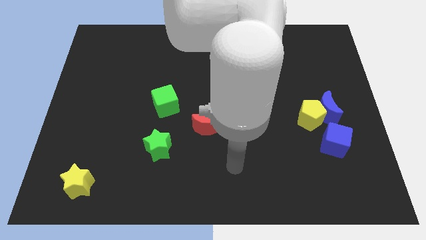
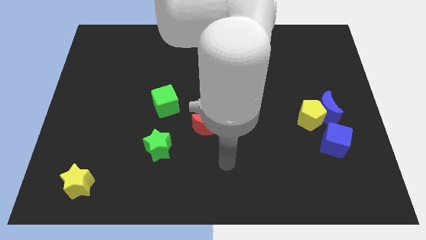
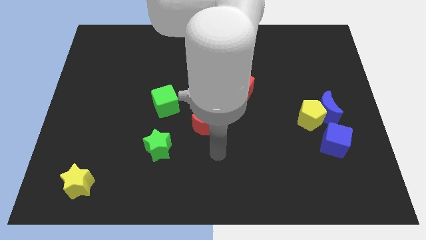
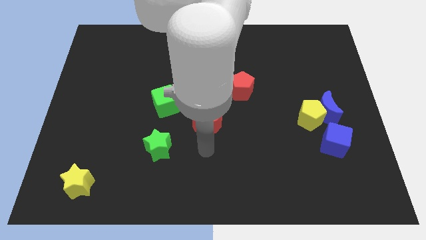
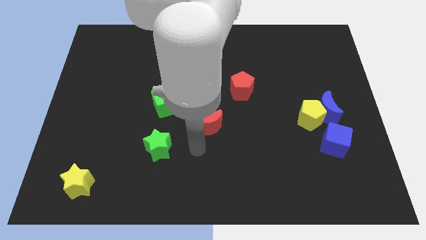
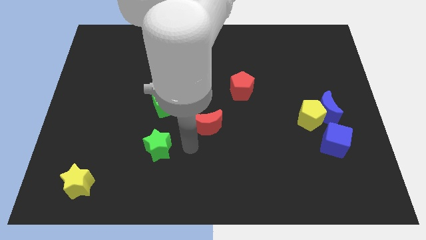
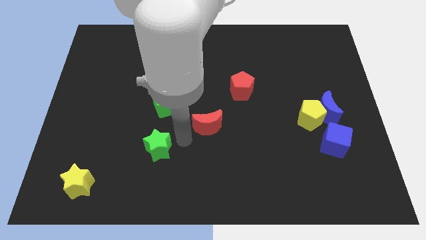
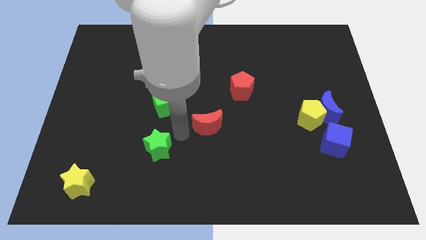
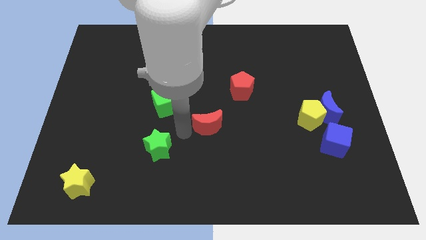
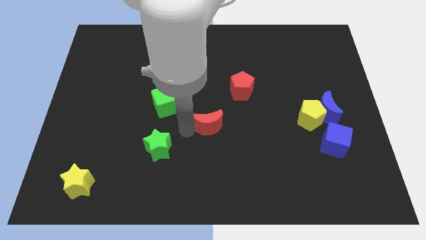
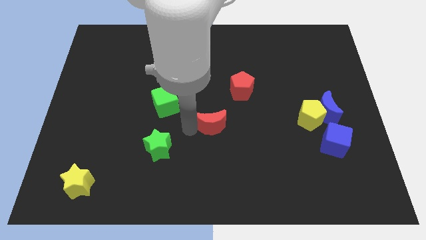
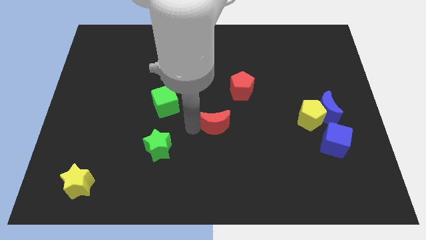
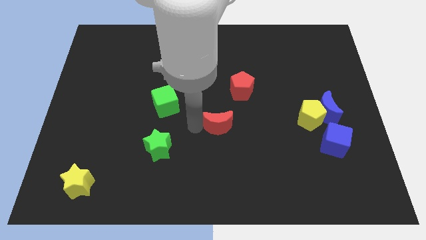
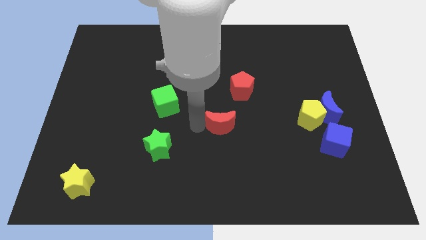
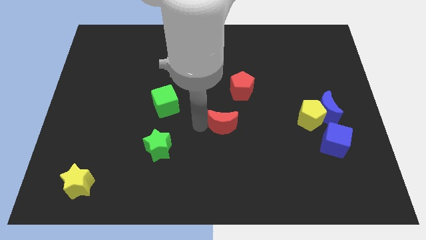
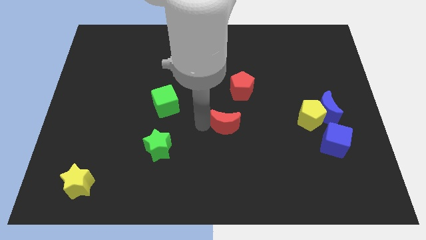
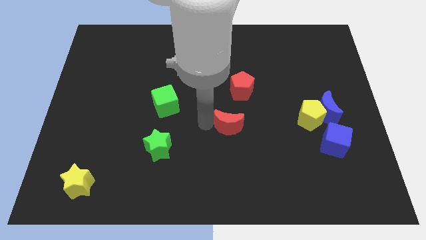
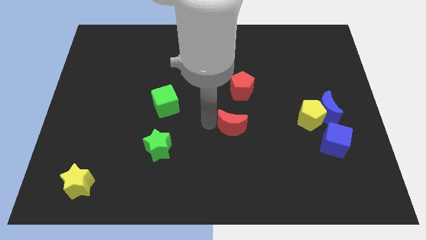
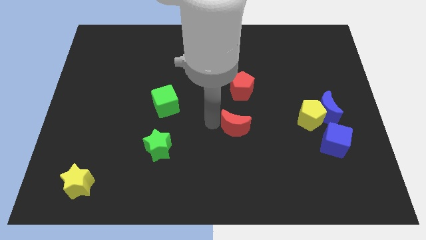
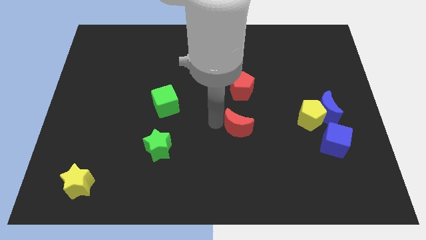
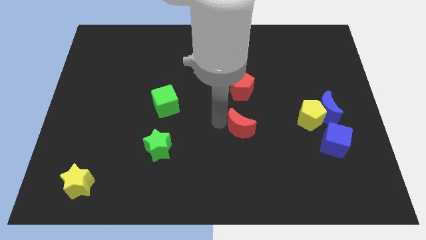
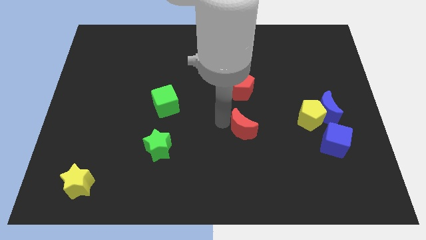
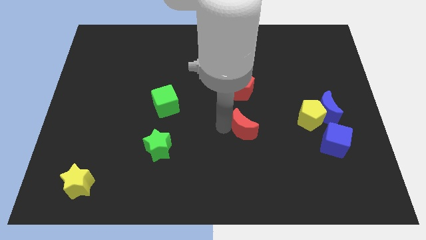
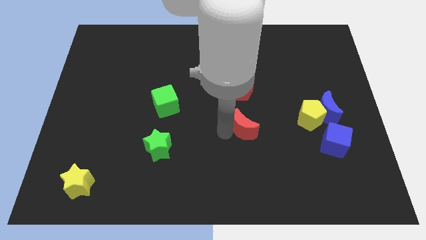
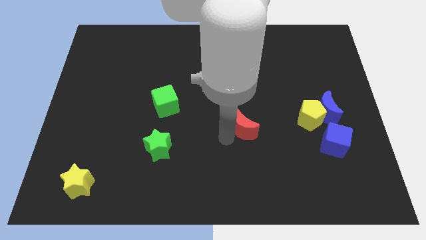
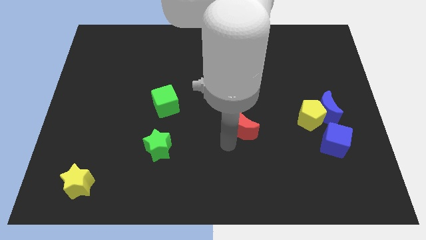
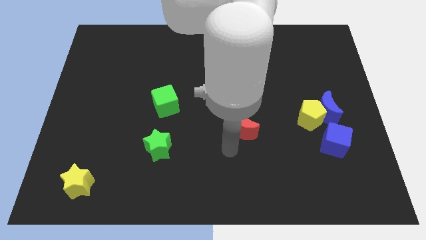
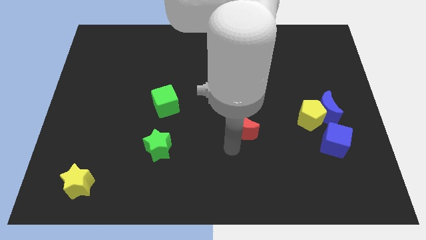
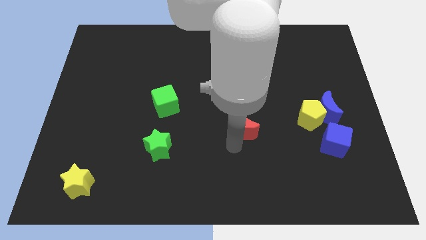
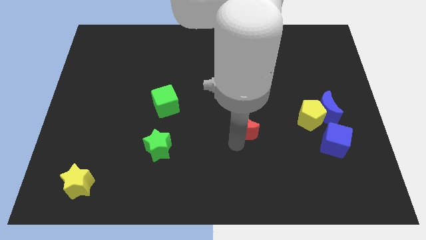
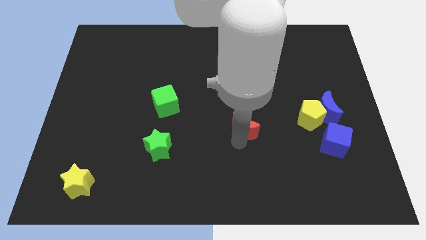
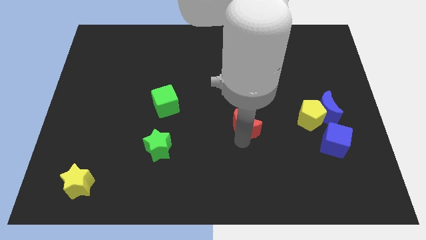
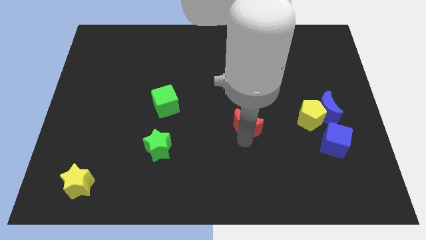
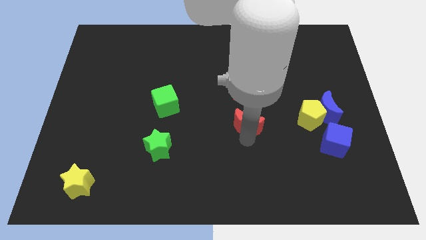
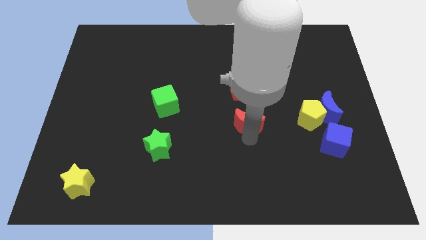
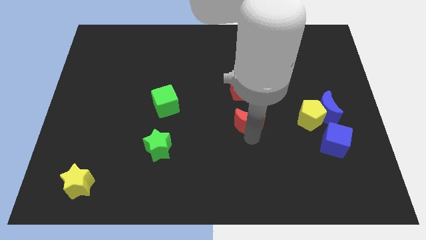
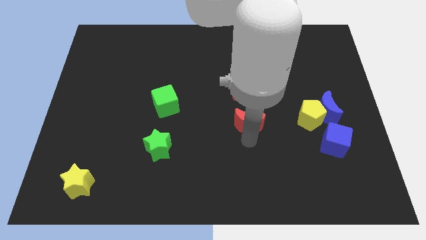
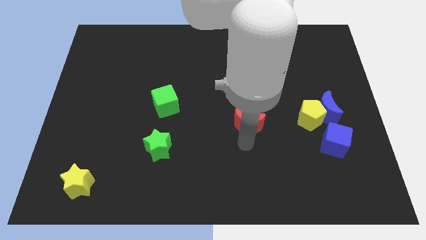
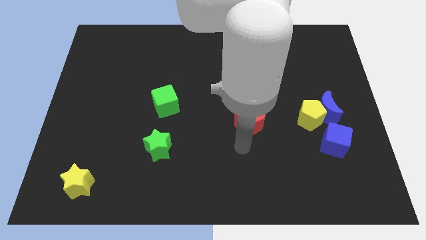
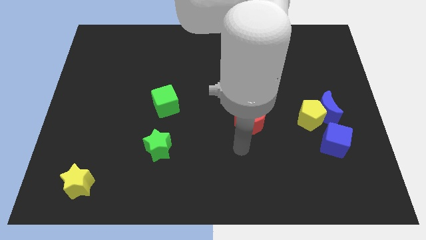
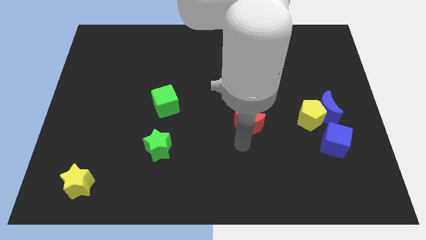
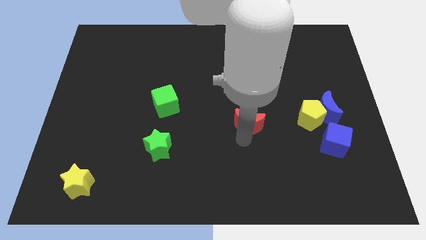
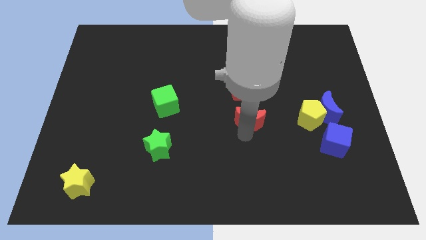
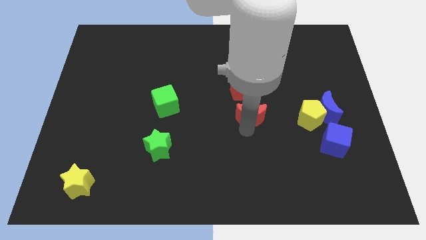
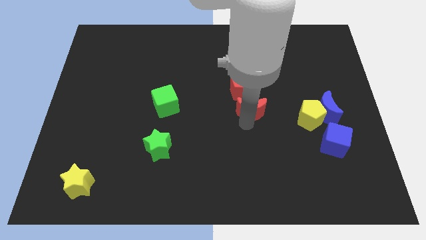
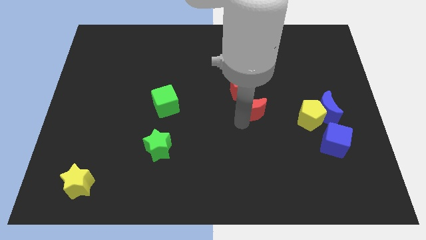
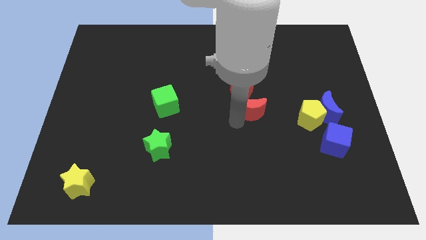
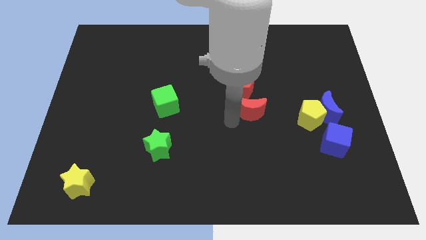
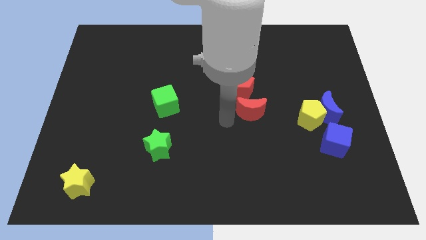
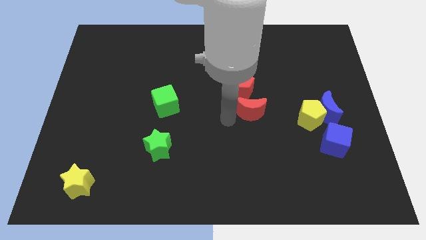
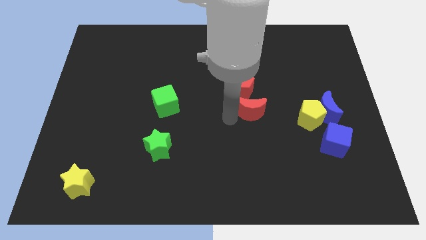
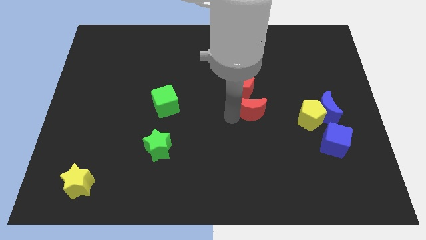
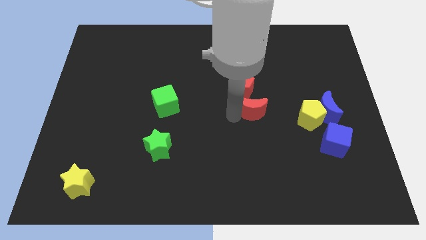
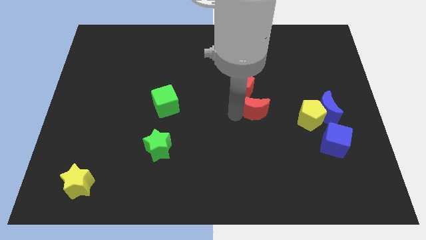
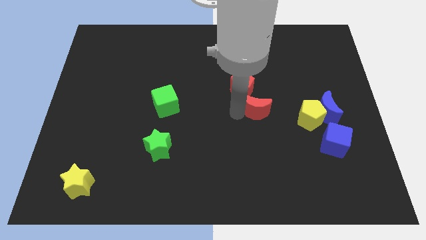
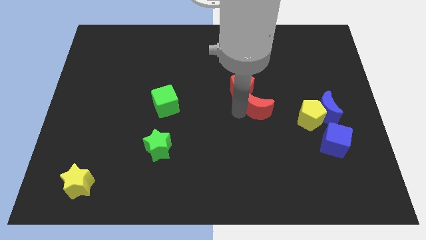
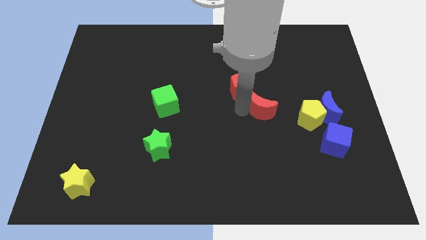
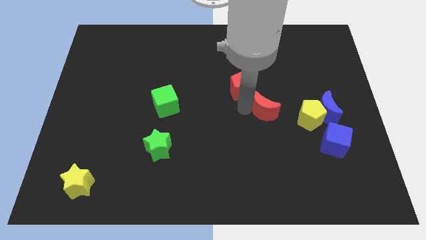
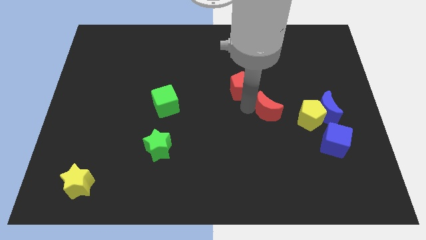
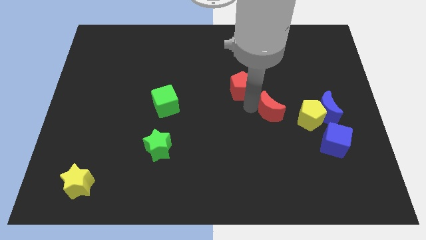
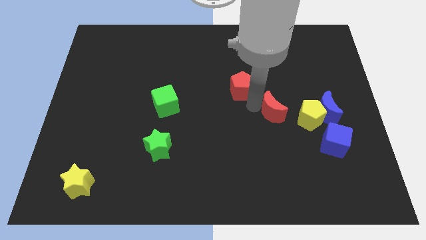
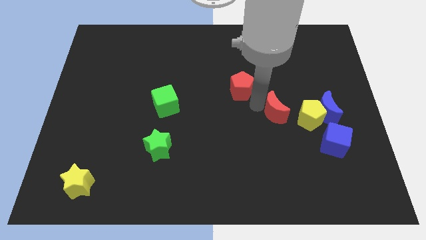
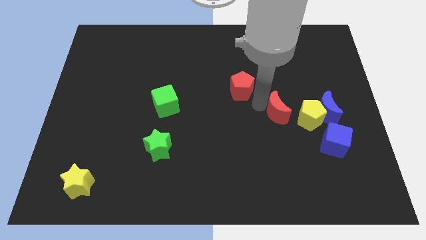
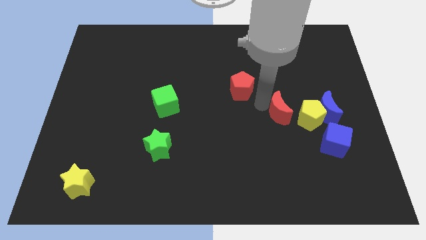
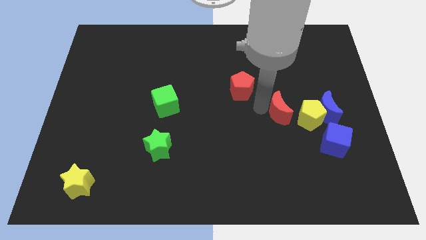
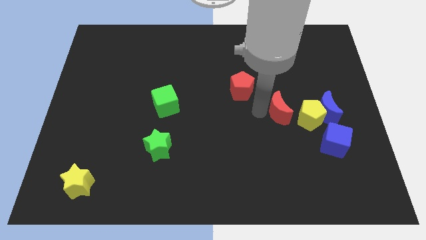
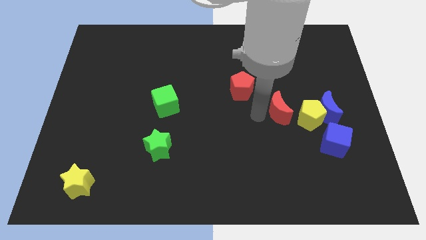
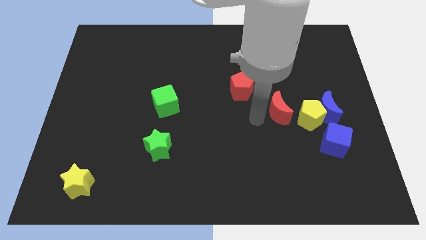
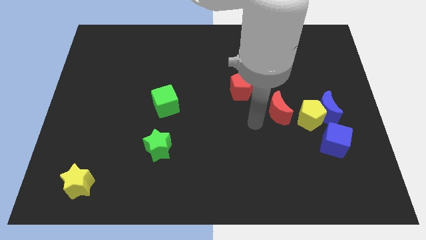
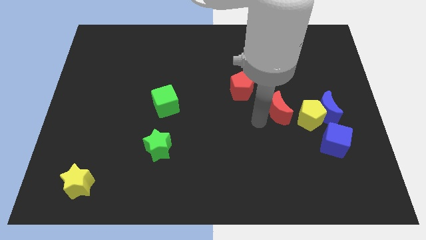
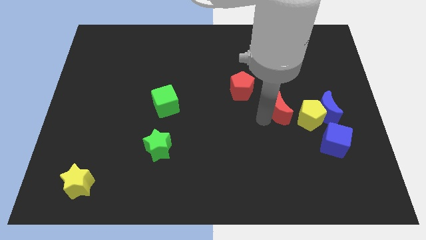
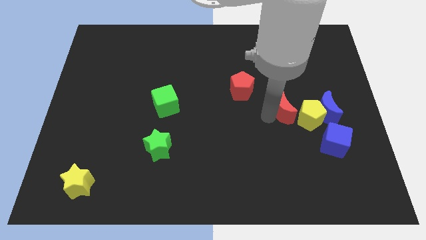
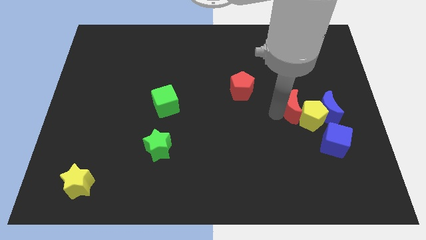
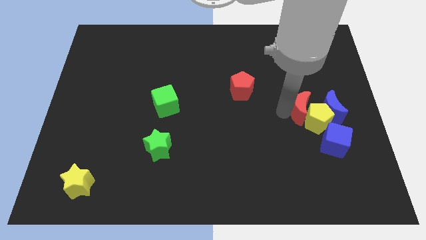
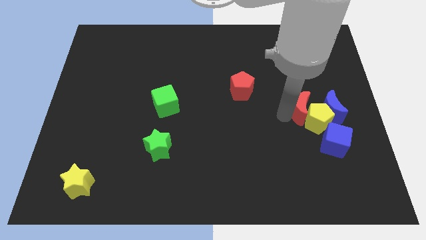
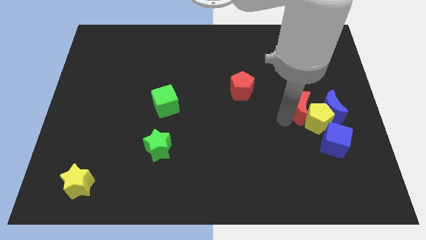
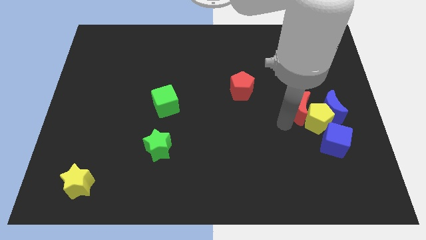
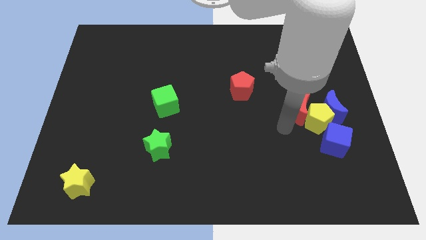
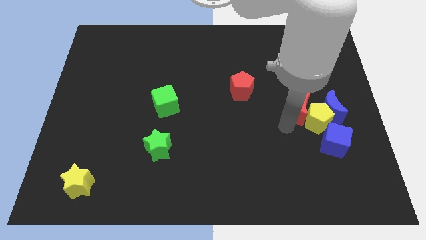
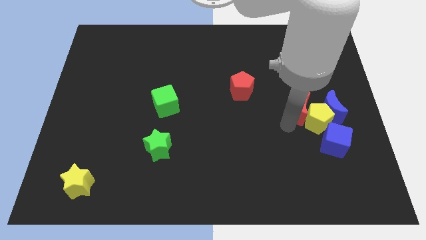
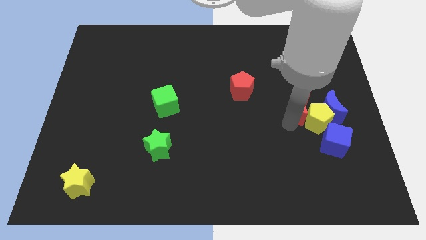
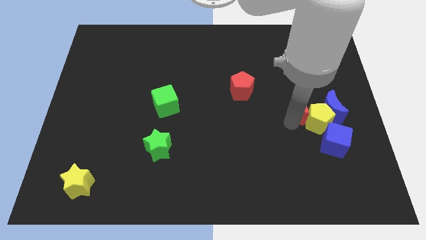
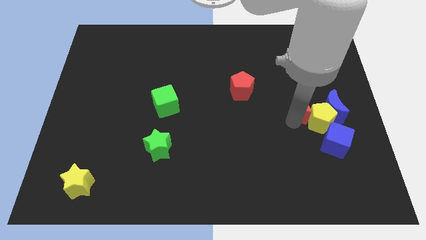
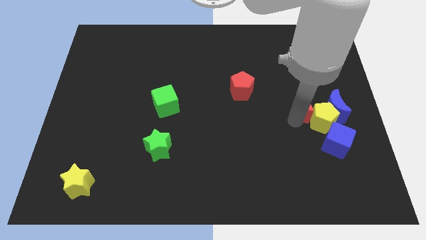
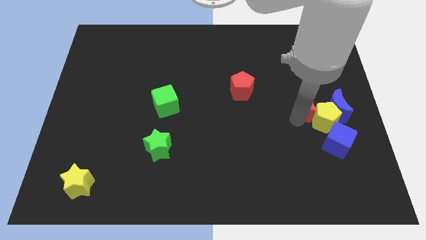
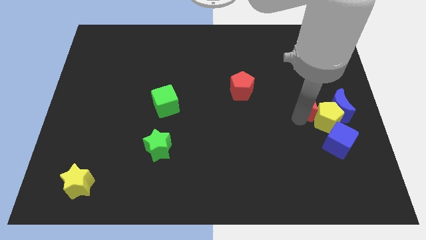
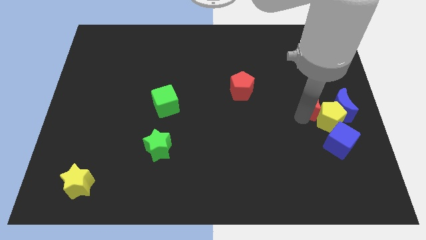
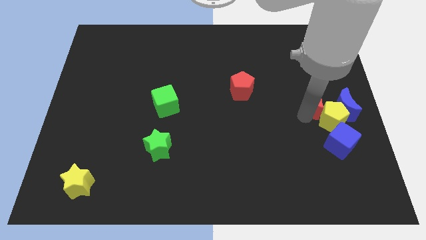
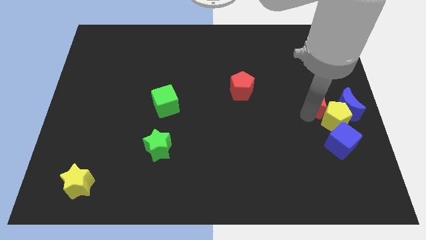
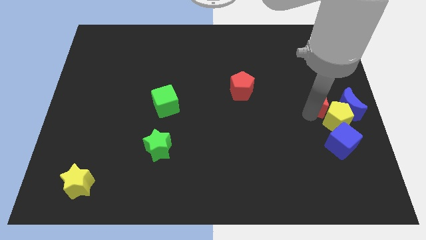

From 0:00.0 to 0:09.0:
slide the red moon to the center right
